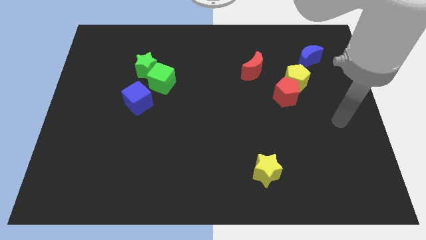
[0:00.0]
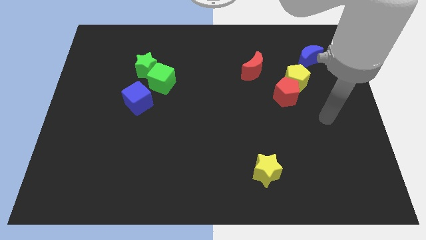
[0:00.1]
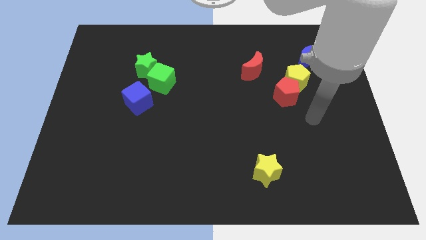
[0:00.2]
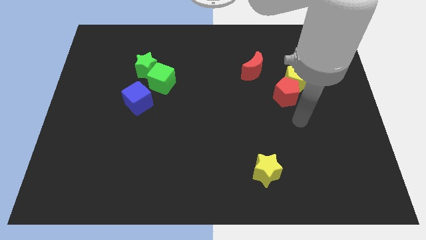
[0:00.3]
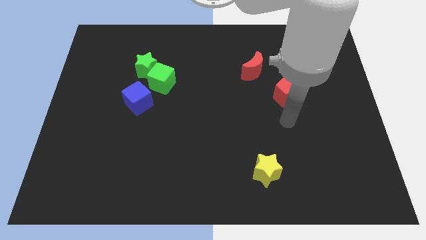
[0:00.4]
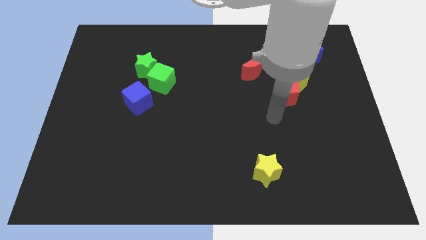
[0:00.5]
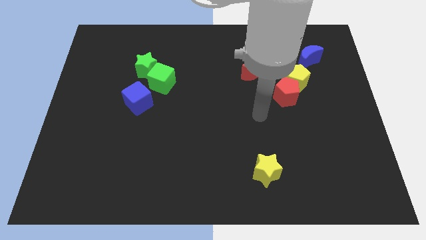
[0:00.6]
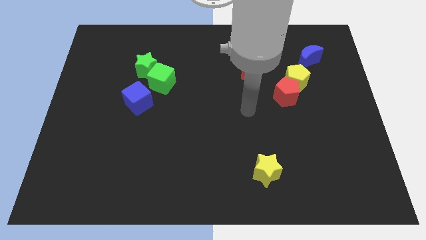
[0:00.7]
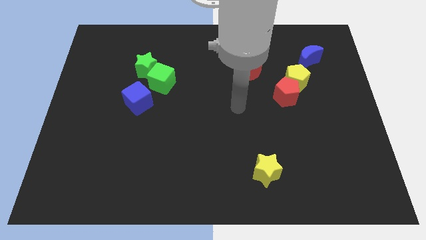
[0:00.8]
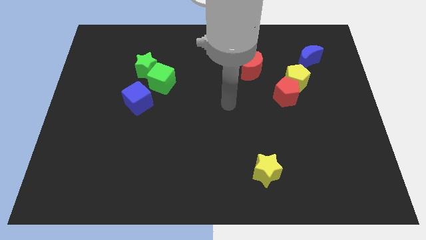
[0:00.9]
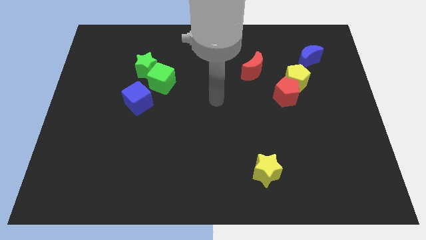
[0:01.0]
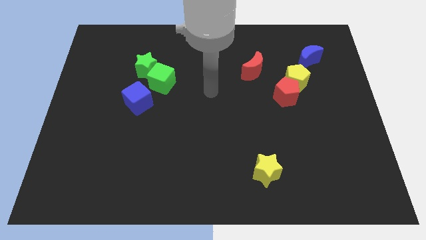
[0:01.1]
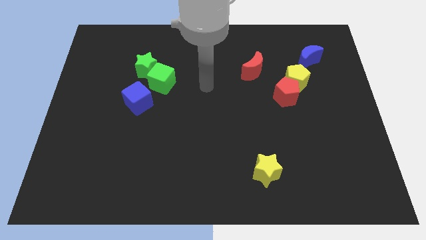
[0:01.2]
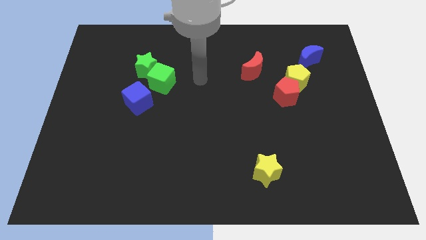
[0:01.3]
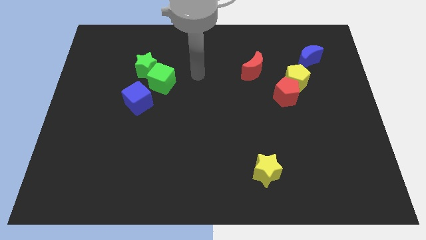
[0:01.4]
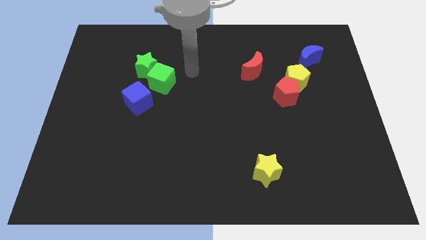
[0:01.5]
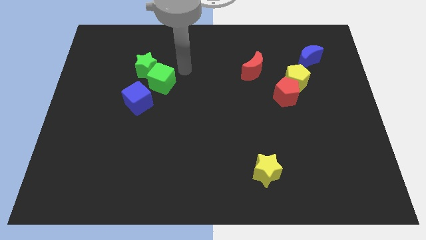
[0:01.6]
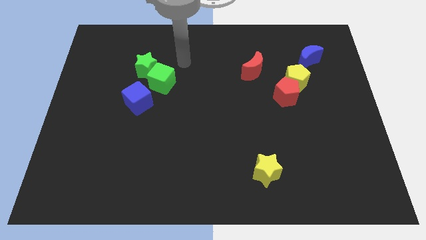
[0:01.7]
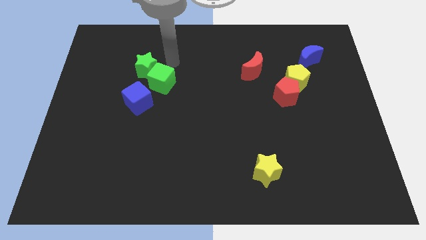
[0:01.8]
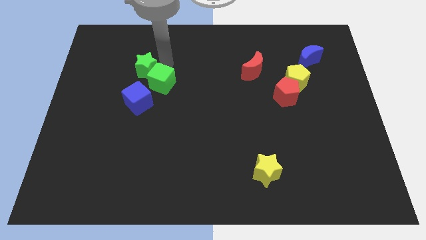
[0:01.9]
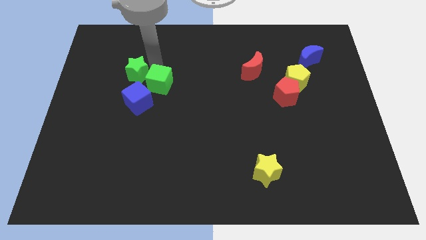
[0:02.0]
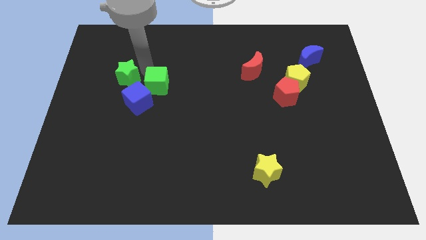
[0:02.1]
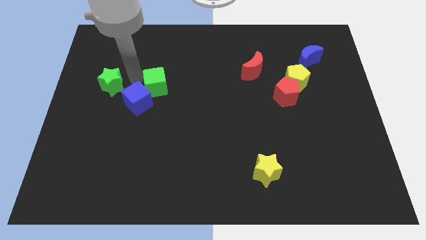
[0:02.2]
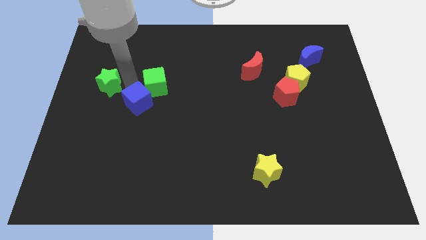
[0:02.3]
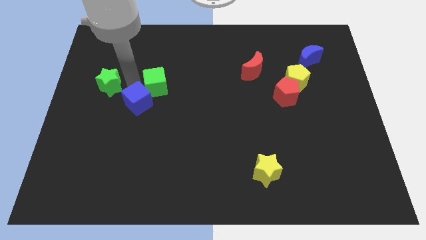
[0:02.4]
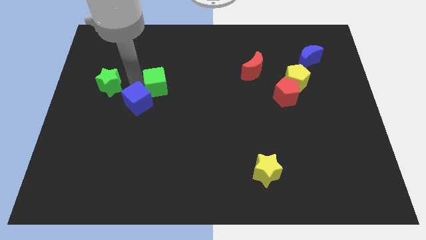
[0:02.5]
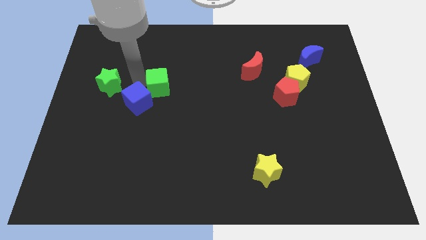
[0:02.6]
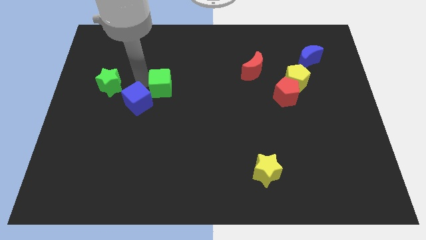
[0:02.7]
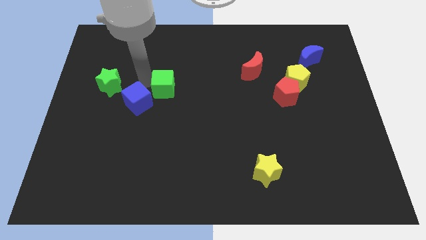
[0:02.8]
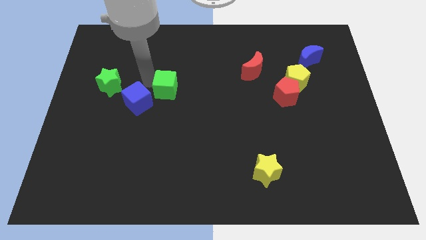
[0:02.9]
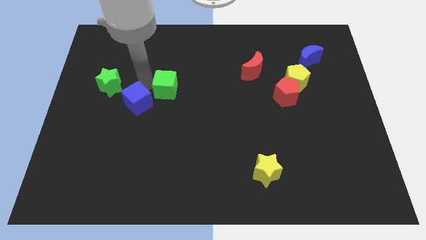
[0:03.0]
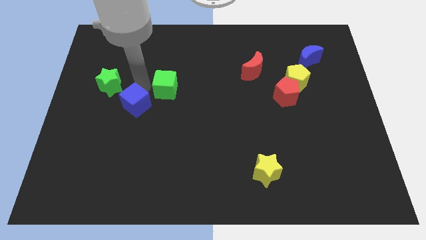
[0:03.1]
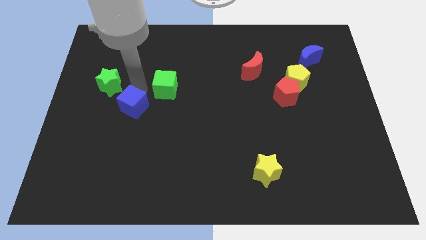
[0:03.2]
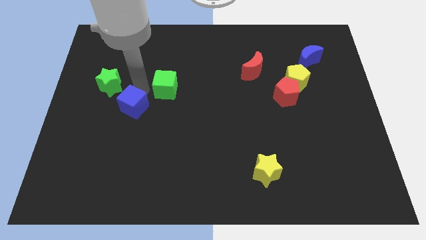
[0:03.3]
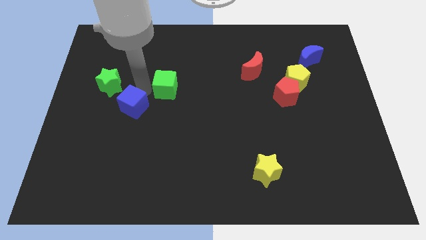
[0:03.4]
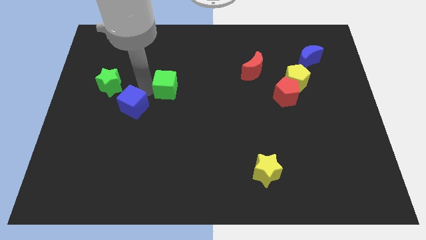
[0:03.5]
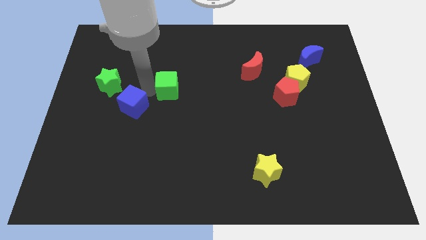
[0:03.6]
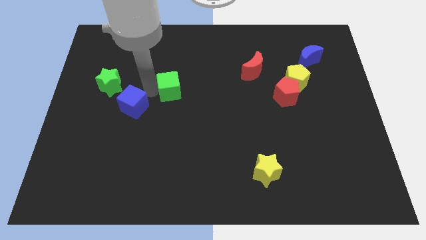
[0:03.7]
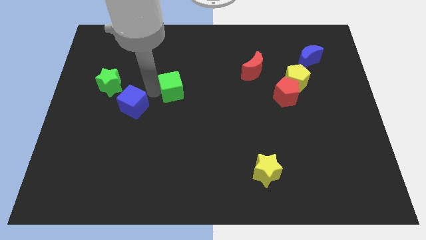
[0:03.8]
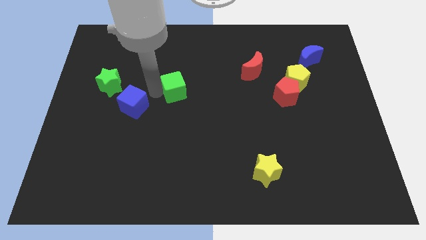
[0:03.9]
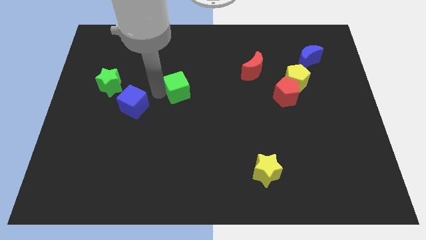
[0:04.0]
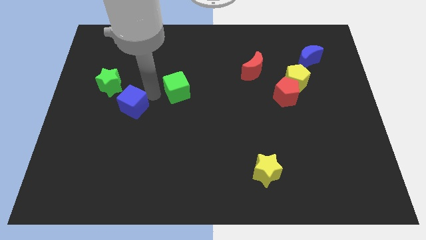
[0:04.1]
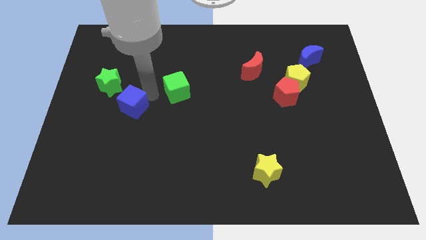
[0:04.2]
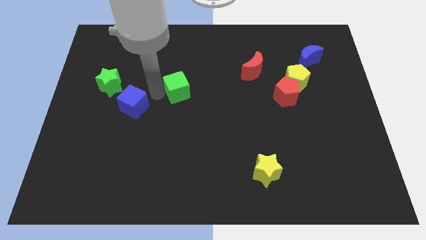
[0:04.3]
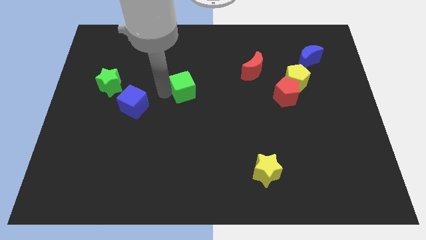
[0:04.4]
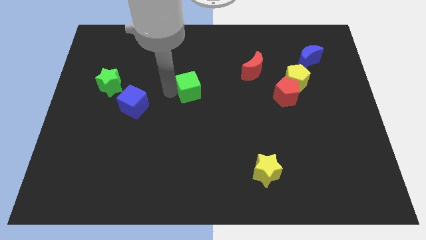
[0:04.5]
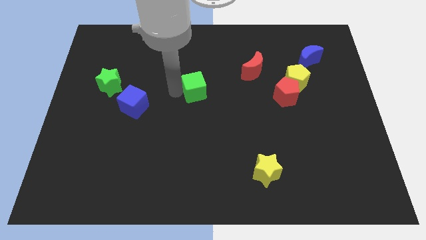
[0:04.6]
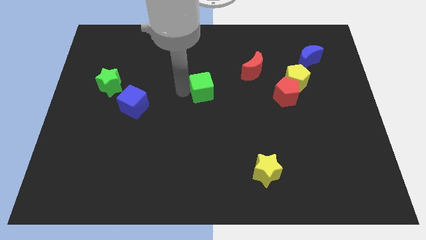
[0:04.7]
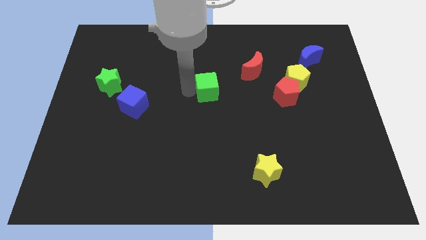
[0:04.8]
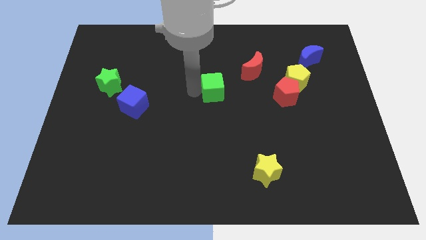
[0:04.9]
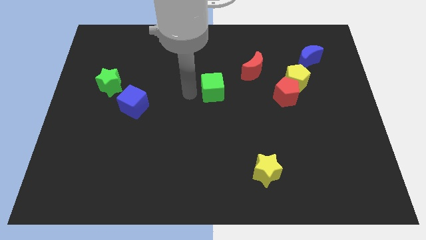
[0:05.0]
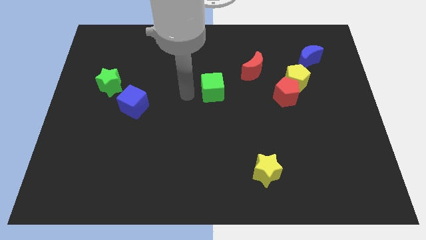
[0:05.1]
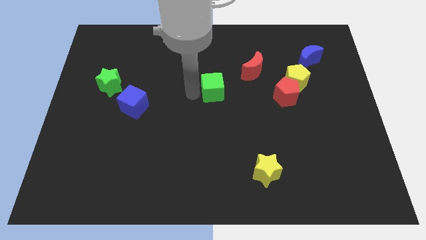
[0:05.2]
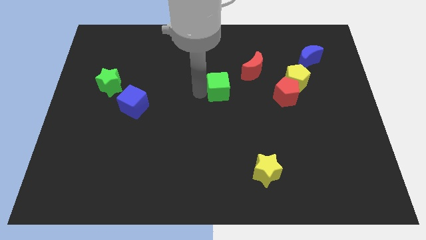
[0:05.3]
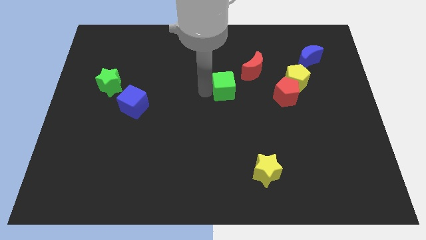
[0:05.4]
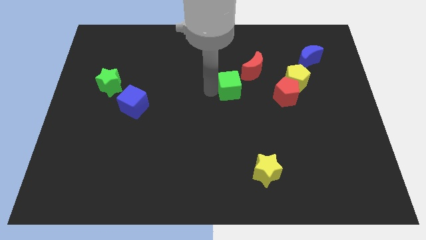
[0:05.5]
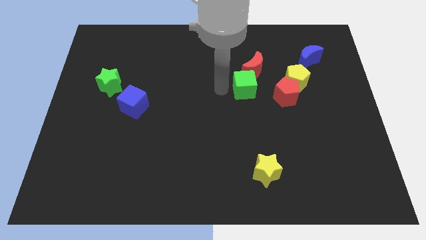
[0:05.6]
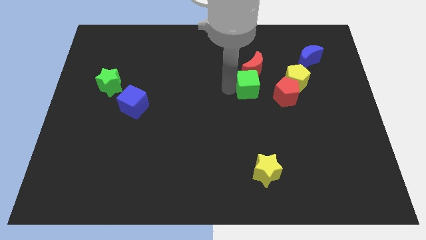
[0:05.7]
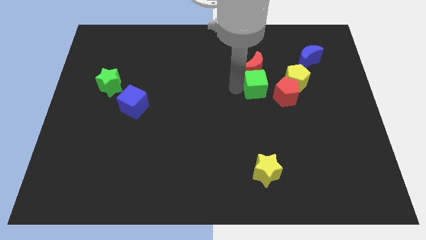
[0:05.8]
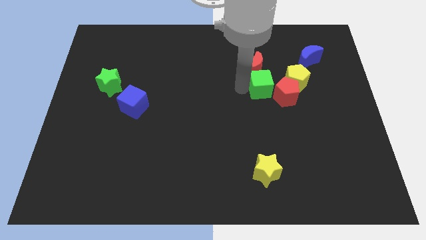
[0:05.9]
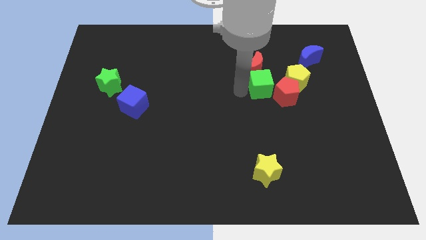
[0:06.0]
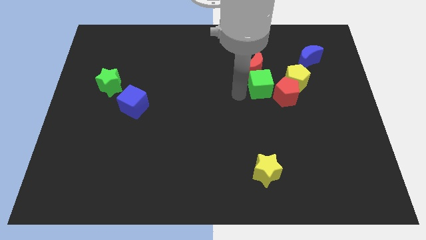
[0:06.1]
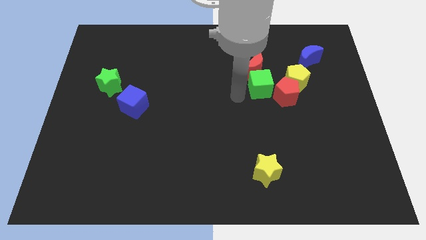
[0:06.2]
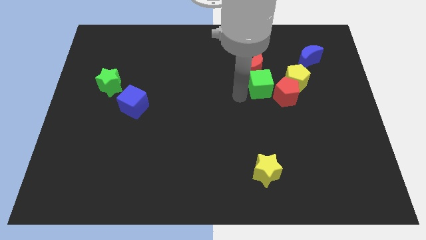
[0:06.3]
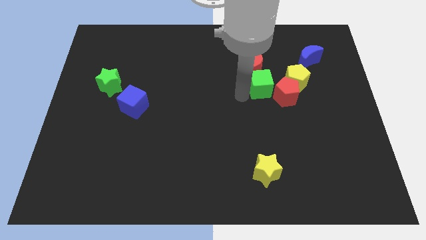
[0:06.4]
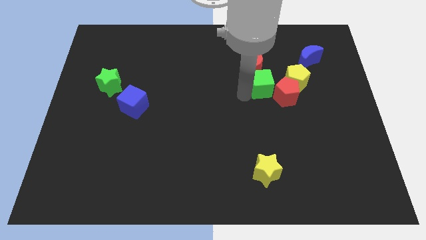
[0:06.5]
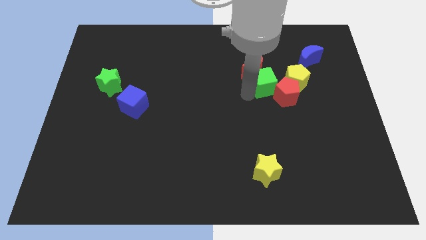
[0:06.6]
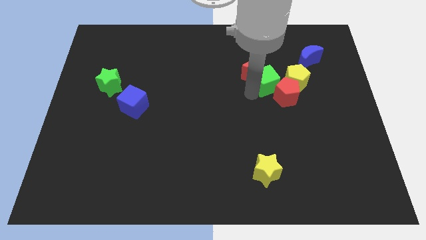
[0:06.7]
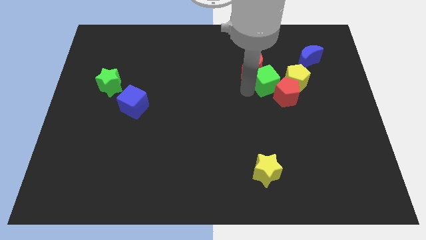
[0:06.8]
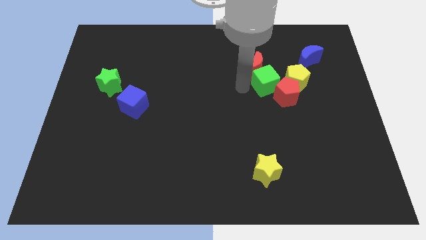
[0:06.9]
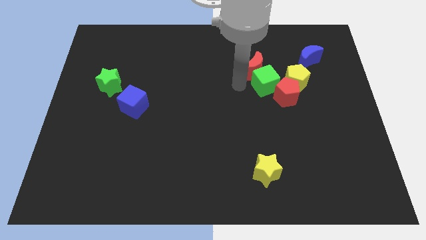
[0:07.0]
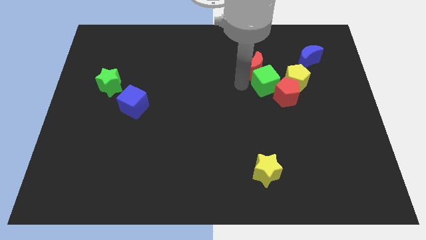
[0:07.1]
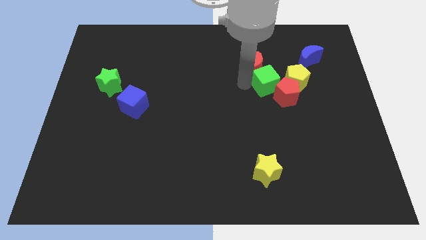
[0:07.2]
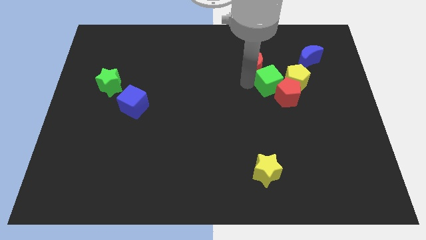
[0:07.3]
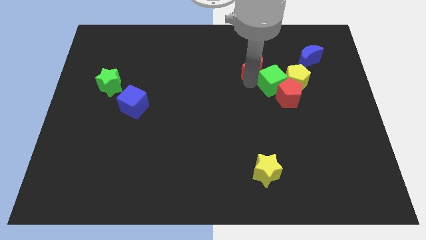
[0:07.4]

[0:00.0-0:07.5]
slide the green cube to the yellow pentagon
